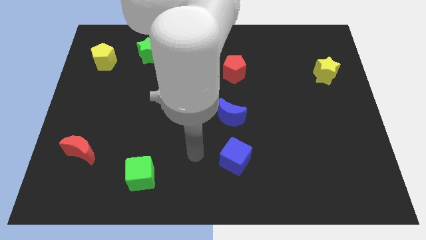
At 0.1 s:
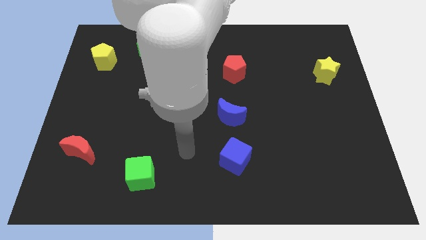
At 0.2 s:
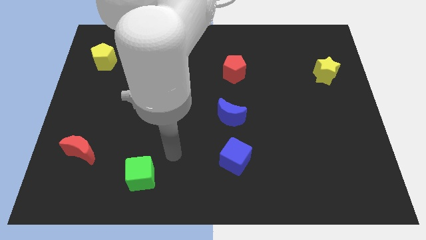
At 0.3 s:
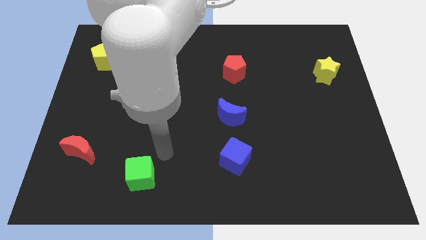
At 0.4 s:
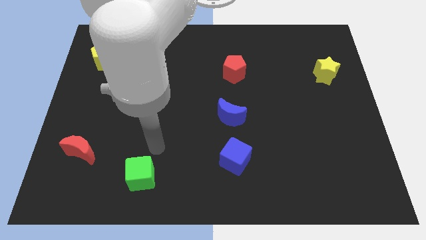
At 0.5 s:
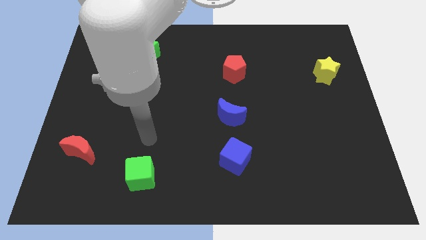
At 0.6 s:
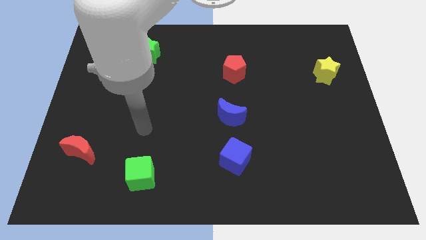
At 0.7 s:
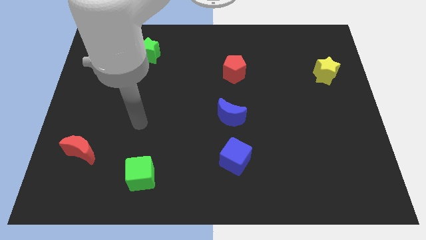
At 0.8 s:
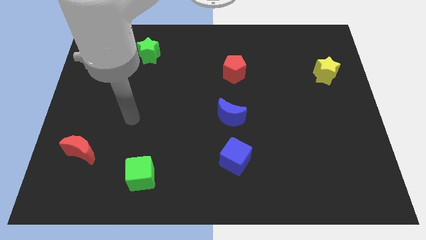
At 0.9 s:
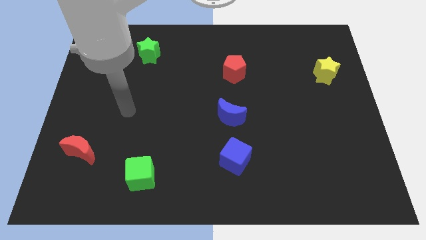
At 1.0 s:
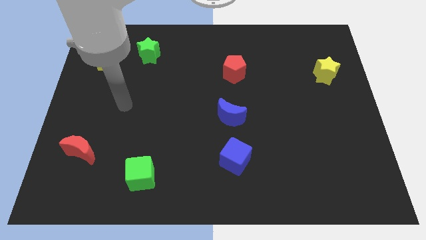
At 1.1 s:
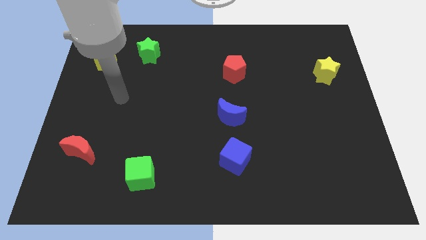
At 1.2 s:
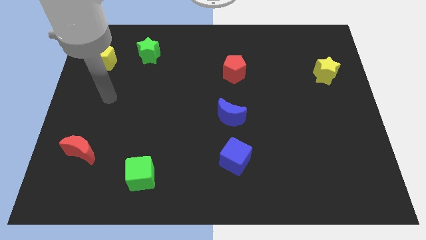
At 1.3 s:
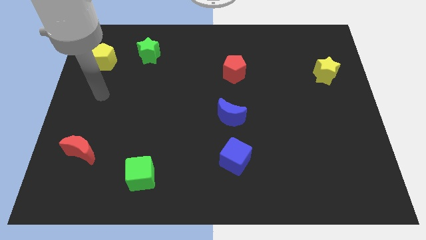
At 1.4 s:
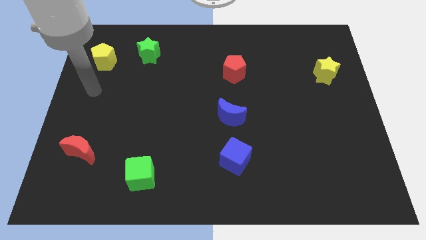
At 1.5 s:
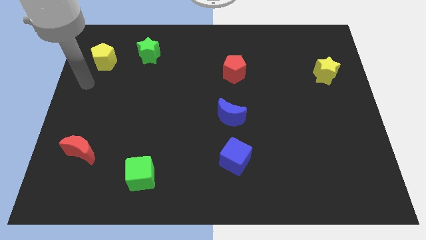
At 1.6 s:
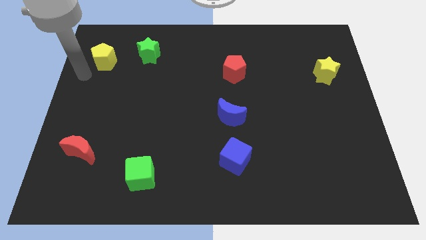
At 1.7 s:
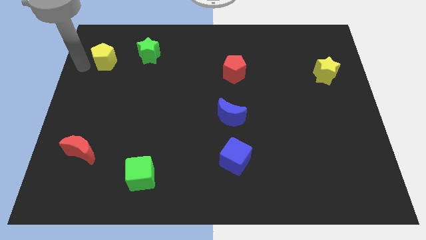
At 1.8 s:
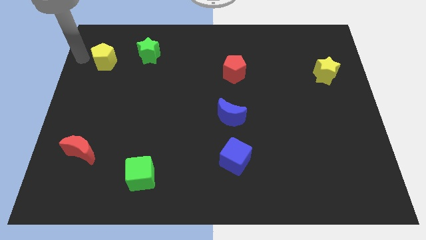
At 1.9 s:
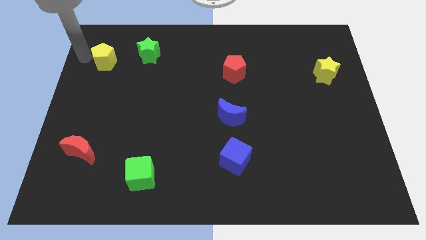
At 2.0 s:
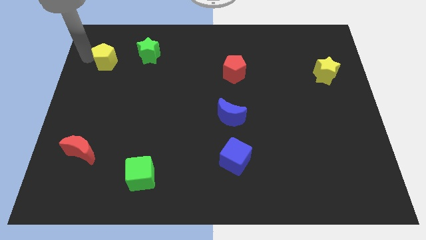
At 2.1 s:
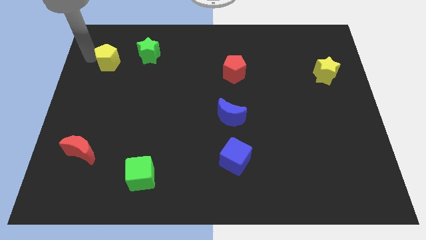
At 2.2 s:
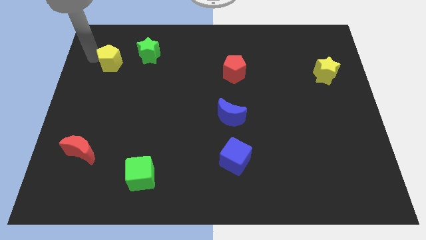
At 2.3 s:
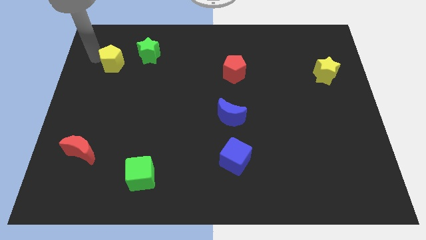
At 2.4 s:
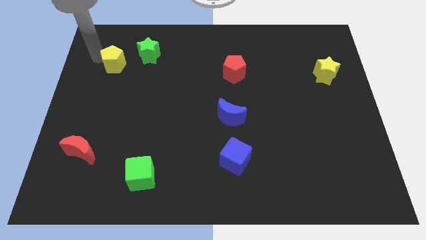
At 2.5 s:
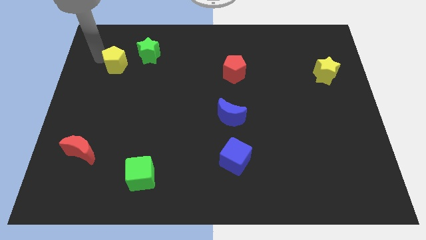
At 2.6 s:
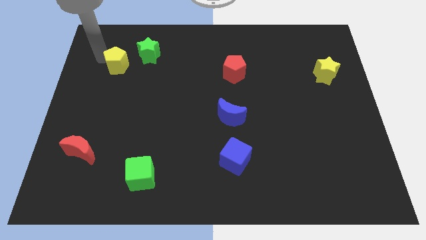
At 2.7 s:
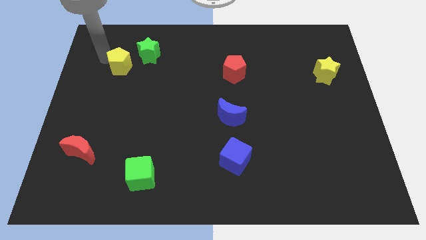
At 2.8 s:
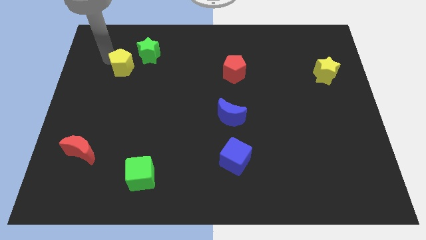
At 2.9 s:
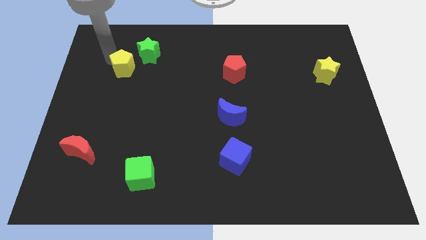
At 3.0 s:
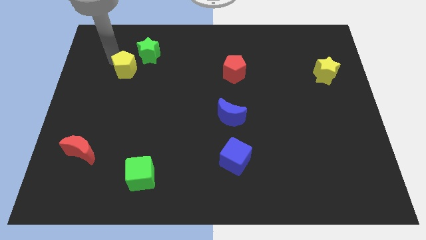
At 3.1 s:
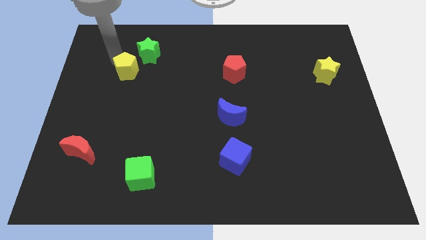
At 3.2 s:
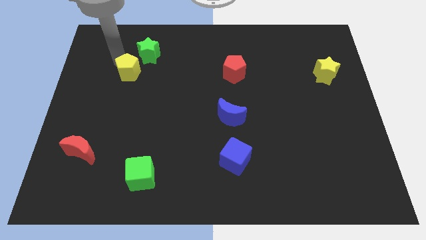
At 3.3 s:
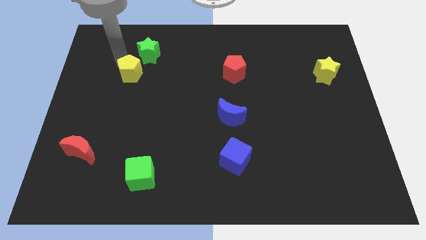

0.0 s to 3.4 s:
slide the yellow pentagon to the right somewhat

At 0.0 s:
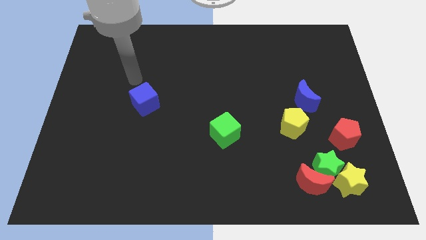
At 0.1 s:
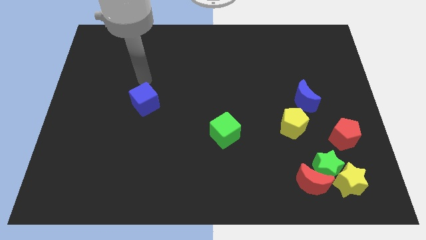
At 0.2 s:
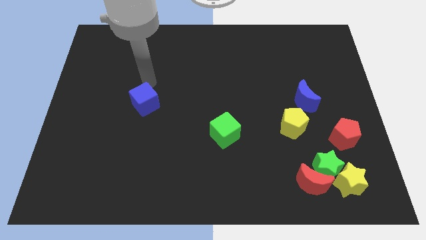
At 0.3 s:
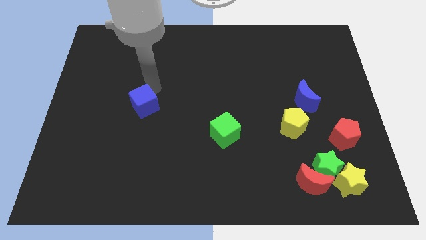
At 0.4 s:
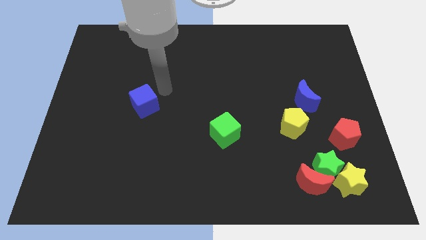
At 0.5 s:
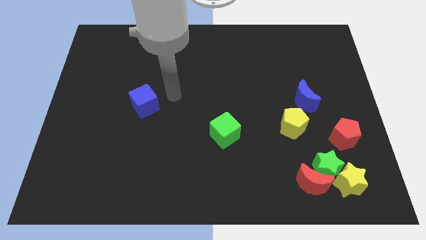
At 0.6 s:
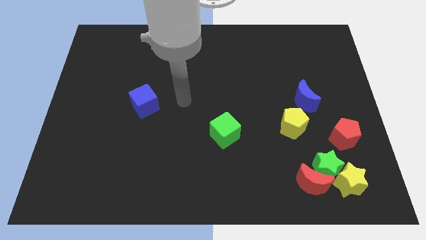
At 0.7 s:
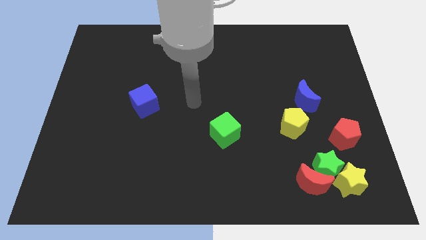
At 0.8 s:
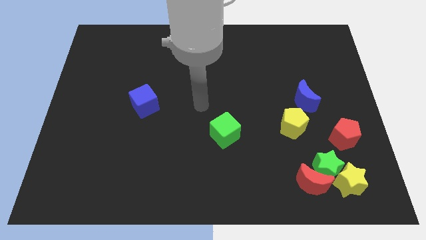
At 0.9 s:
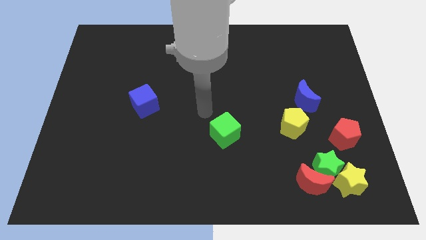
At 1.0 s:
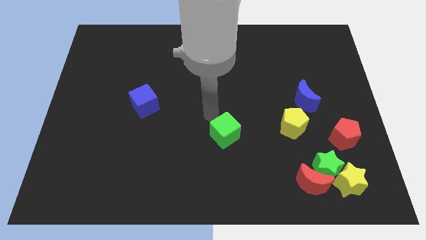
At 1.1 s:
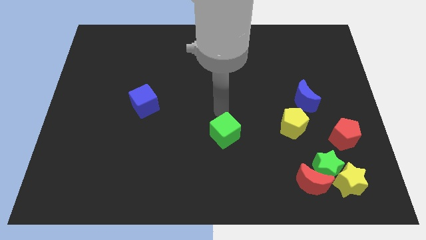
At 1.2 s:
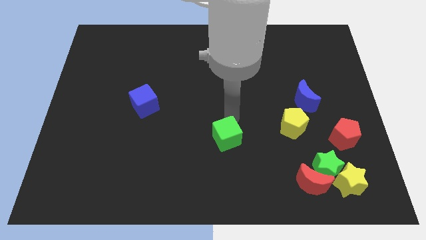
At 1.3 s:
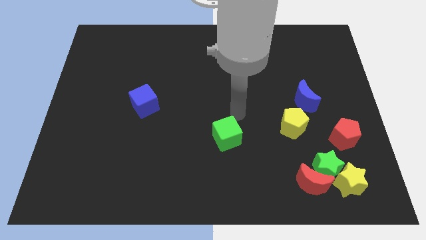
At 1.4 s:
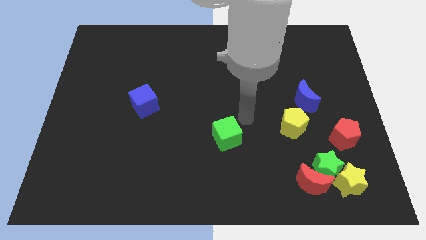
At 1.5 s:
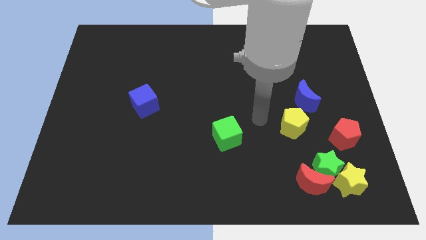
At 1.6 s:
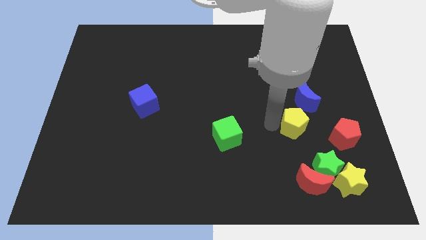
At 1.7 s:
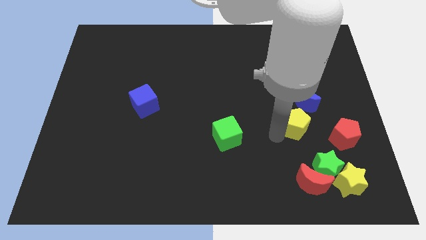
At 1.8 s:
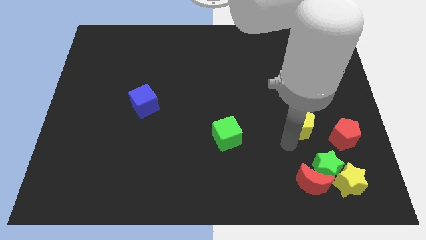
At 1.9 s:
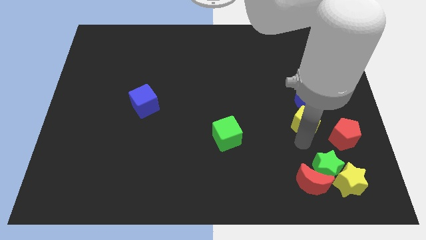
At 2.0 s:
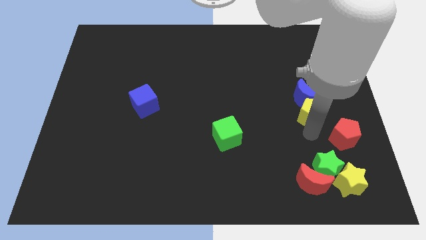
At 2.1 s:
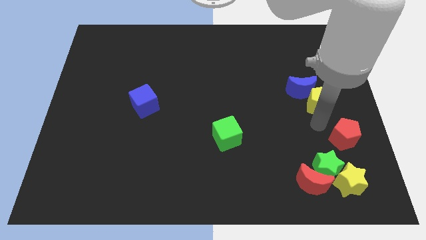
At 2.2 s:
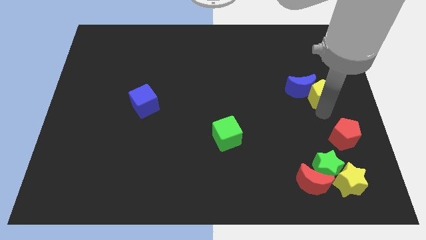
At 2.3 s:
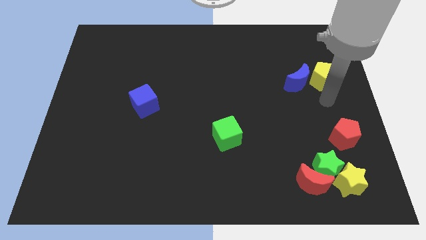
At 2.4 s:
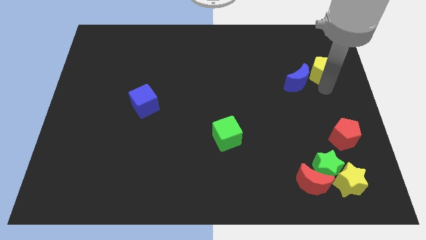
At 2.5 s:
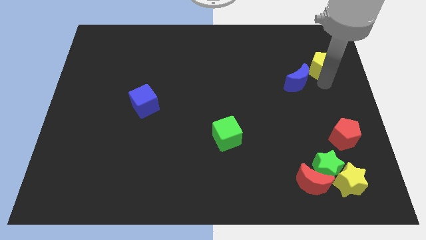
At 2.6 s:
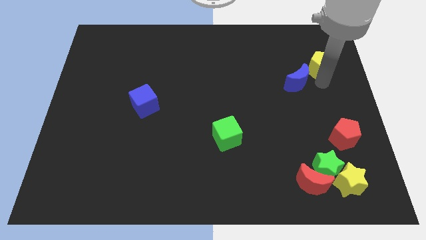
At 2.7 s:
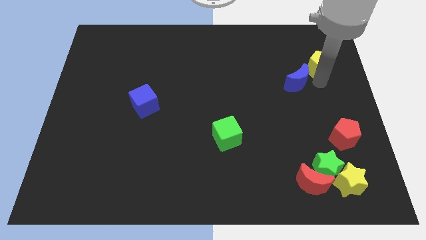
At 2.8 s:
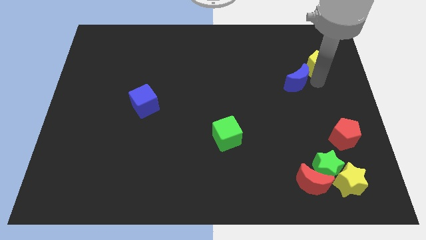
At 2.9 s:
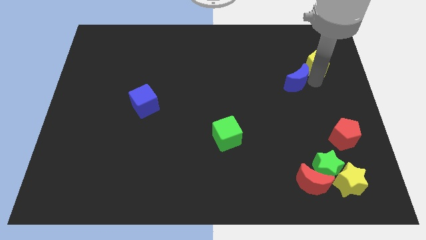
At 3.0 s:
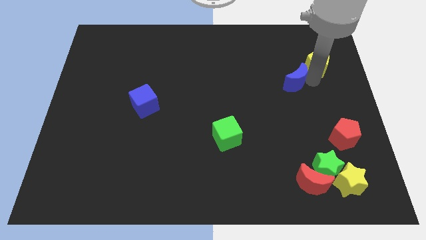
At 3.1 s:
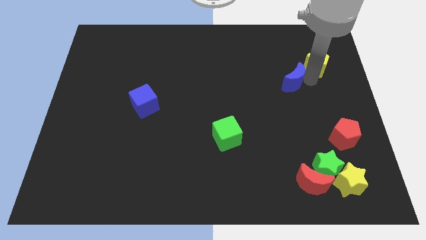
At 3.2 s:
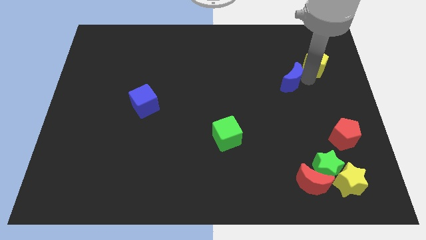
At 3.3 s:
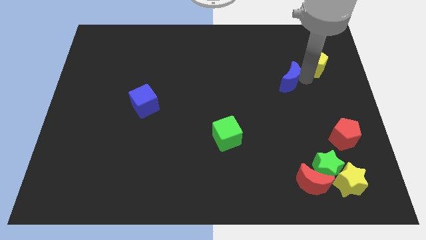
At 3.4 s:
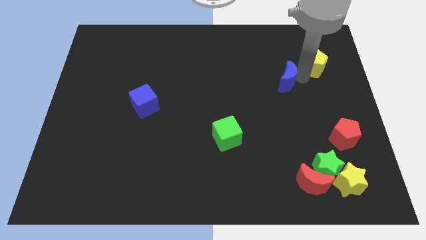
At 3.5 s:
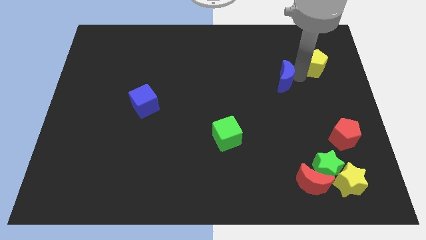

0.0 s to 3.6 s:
push the blue moon upwards and to the left a bit

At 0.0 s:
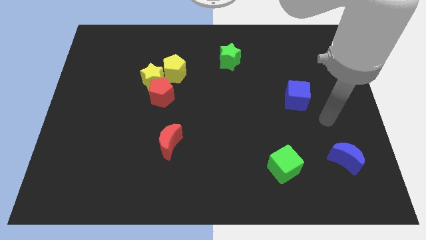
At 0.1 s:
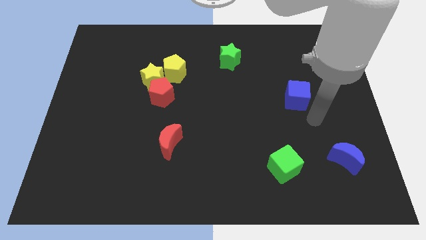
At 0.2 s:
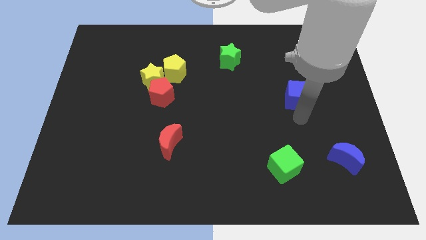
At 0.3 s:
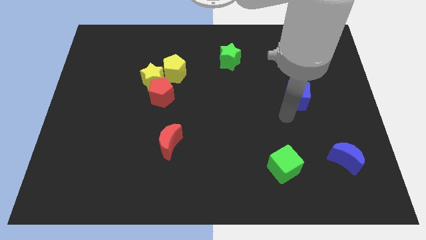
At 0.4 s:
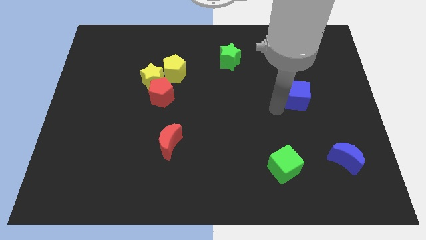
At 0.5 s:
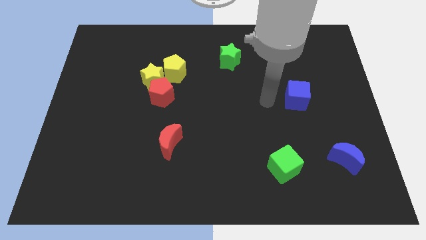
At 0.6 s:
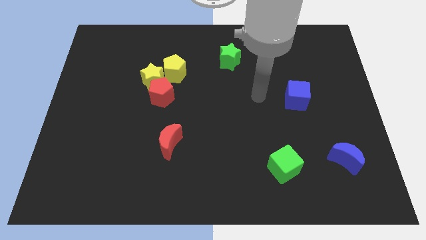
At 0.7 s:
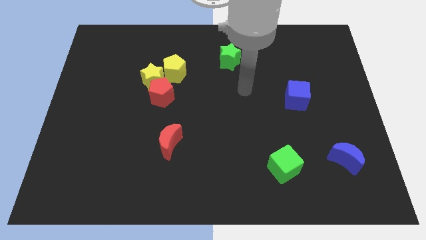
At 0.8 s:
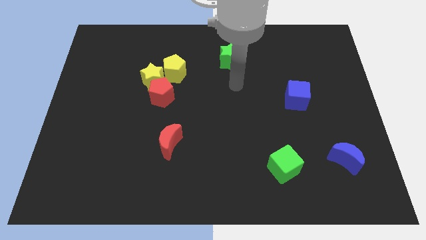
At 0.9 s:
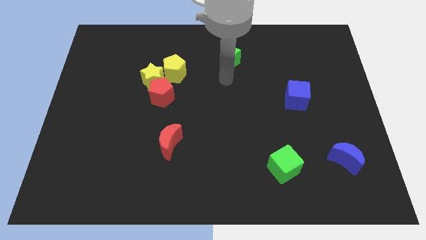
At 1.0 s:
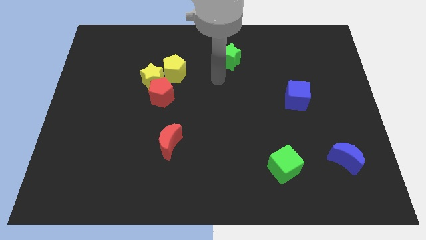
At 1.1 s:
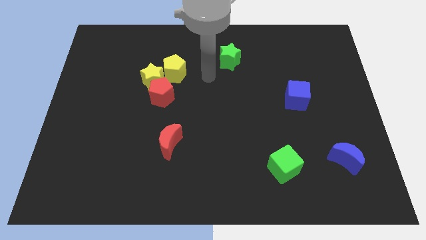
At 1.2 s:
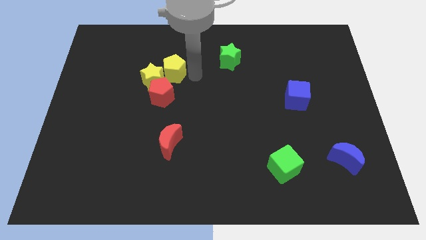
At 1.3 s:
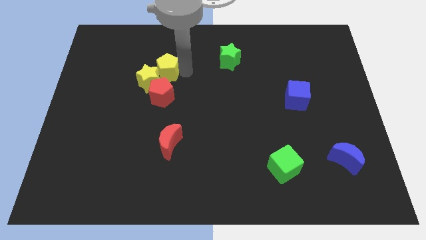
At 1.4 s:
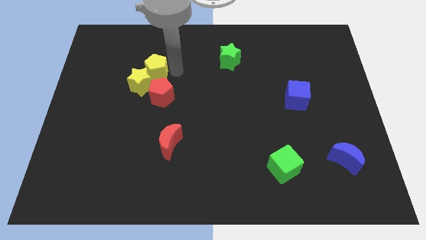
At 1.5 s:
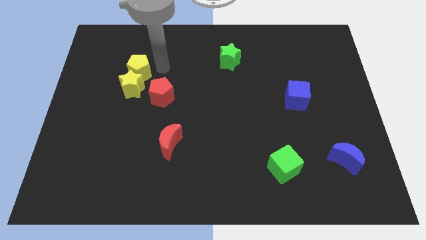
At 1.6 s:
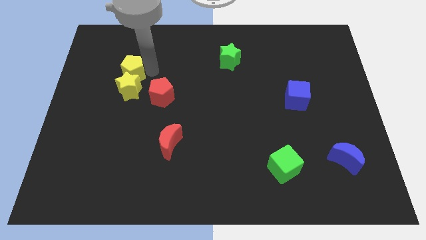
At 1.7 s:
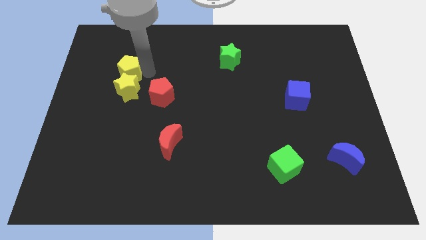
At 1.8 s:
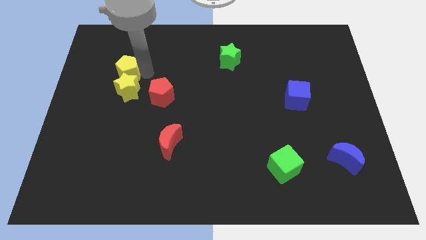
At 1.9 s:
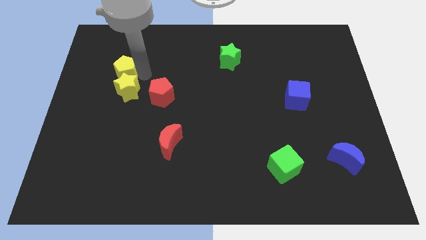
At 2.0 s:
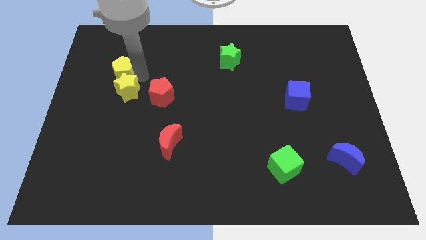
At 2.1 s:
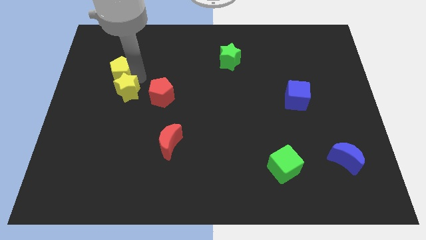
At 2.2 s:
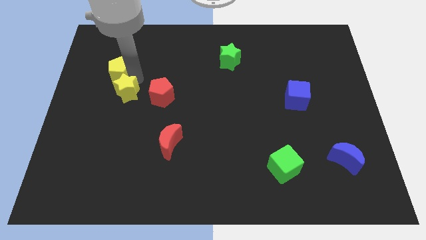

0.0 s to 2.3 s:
slightly push the yellow star diagonally down and left
